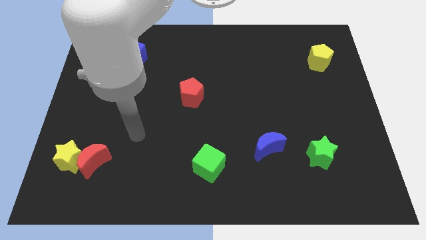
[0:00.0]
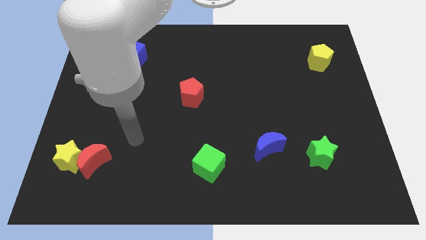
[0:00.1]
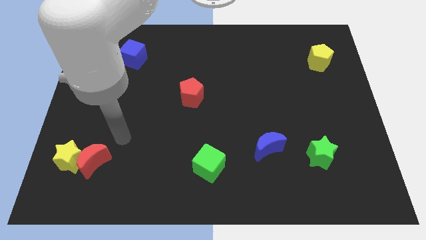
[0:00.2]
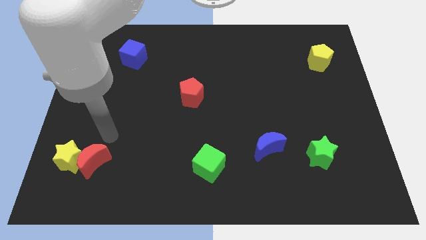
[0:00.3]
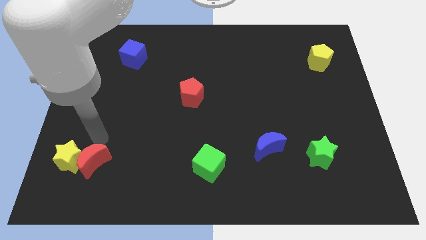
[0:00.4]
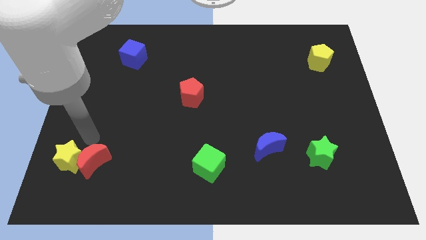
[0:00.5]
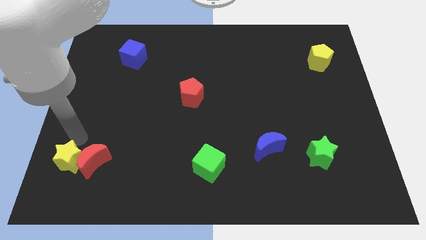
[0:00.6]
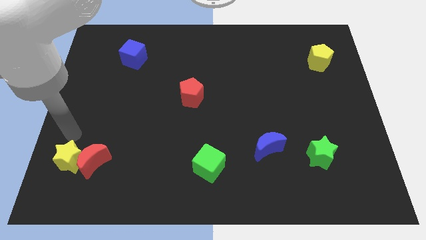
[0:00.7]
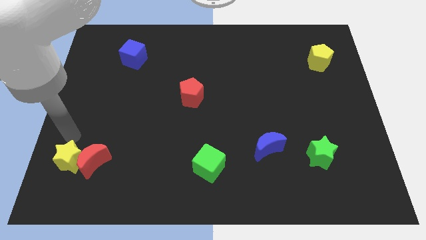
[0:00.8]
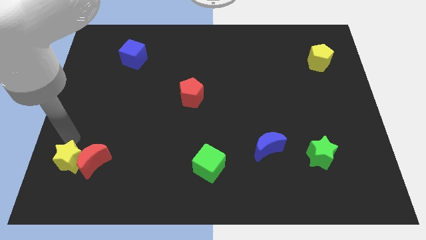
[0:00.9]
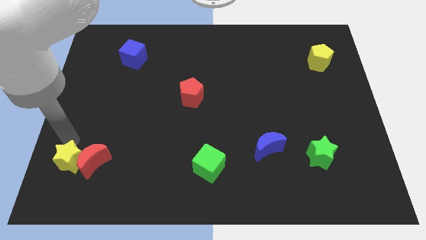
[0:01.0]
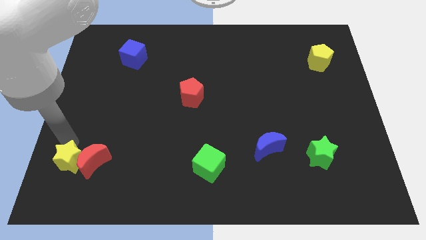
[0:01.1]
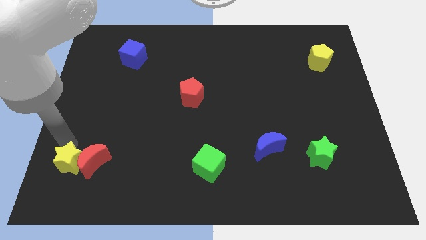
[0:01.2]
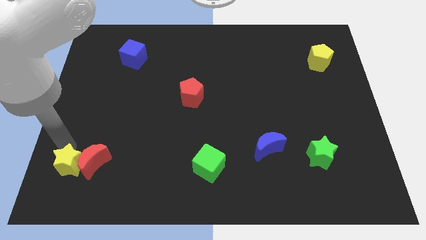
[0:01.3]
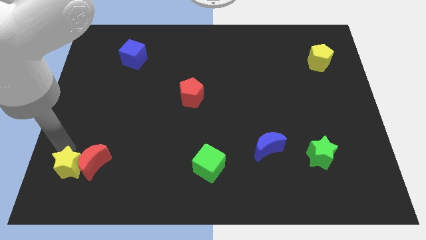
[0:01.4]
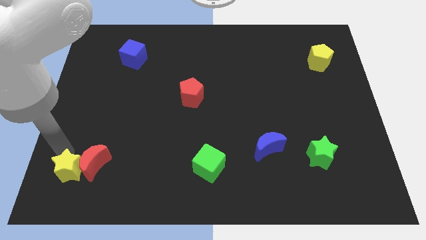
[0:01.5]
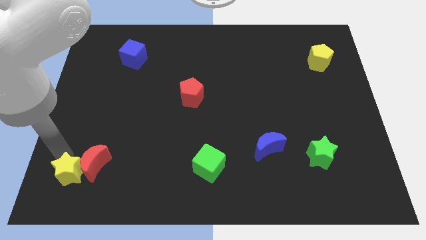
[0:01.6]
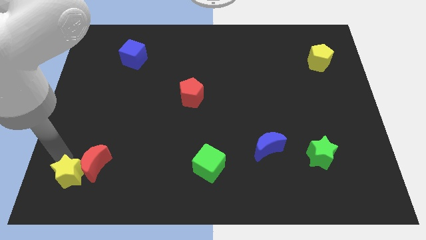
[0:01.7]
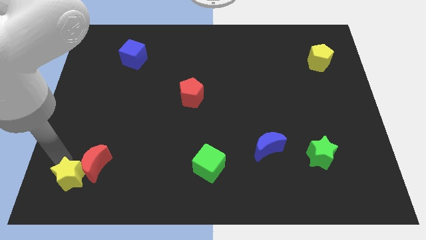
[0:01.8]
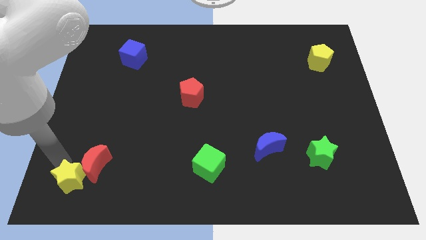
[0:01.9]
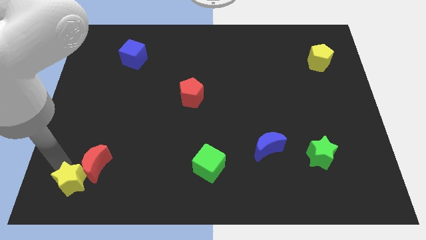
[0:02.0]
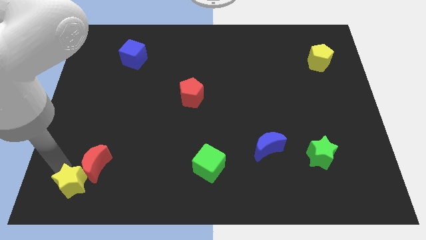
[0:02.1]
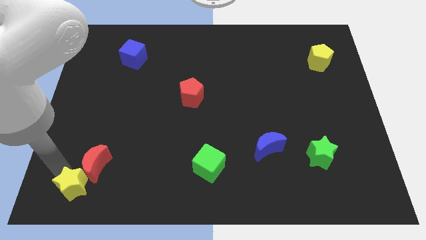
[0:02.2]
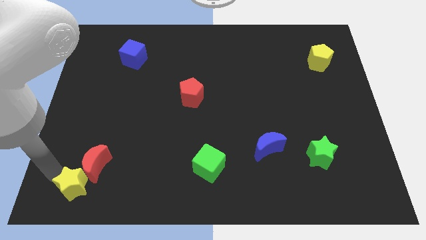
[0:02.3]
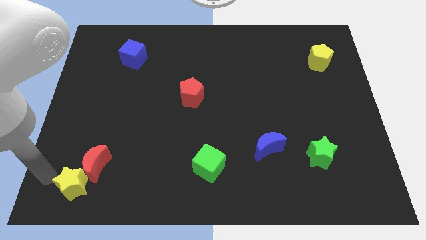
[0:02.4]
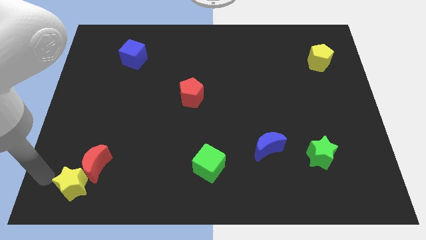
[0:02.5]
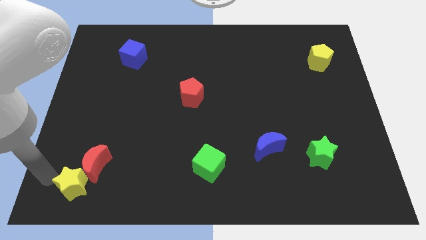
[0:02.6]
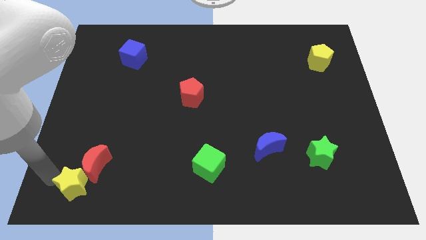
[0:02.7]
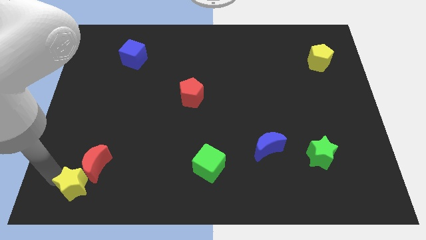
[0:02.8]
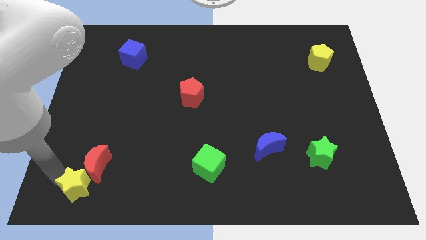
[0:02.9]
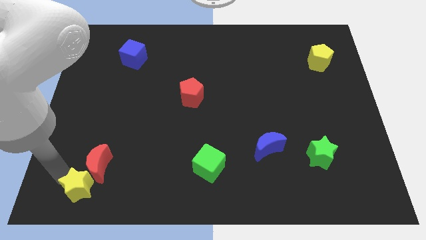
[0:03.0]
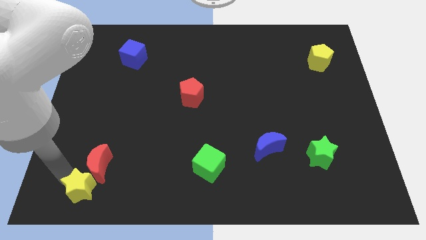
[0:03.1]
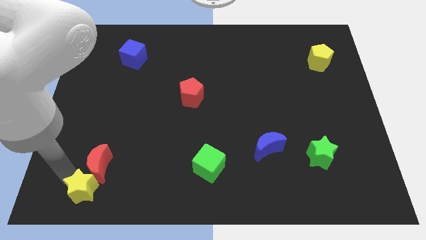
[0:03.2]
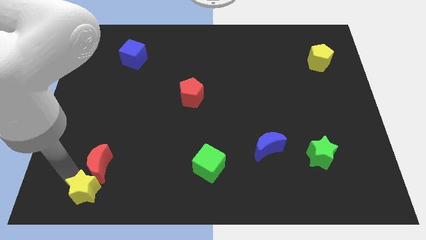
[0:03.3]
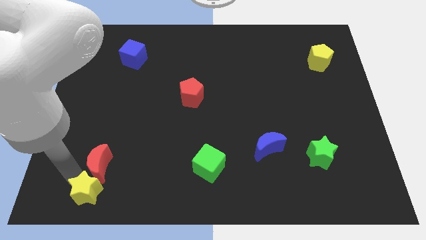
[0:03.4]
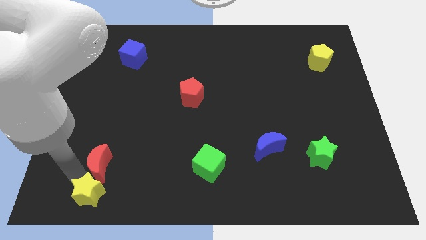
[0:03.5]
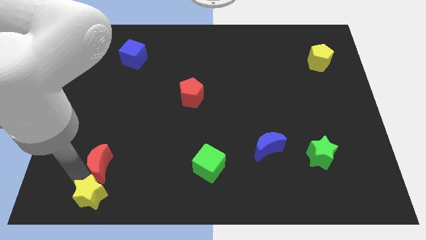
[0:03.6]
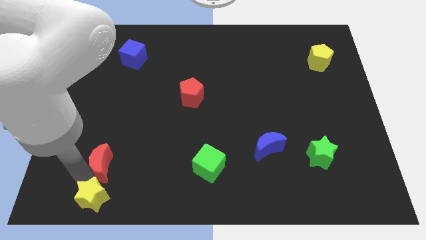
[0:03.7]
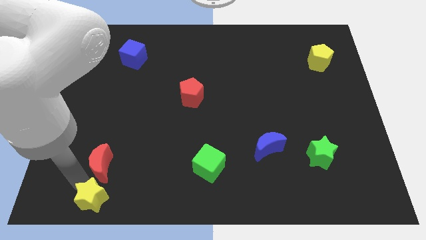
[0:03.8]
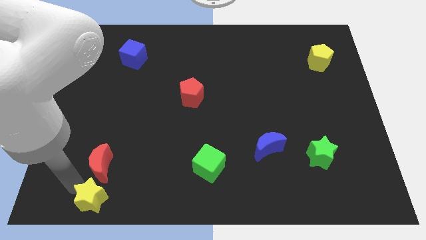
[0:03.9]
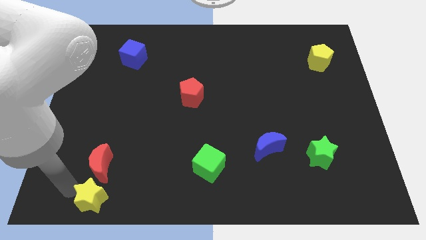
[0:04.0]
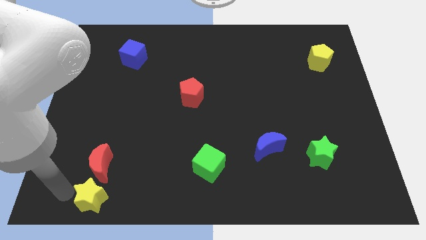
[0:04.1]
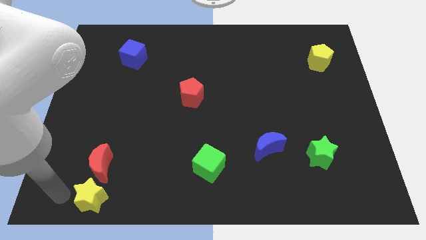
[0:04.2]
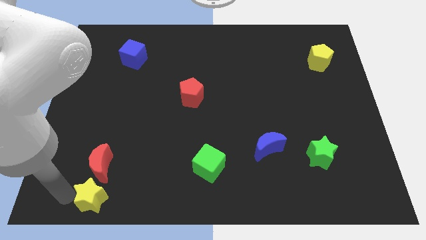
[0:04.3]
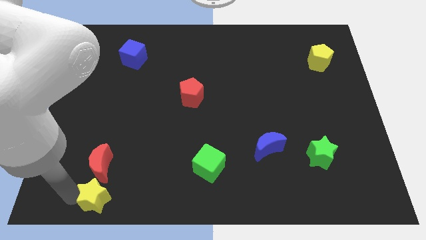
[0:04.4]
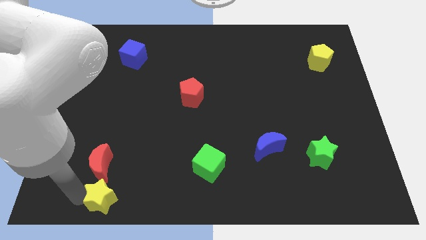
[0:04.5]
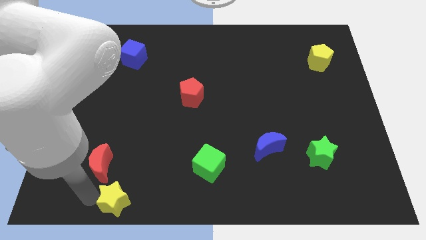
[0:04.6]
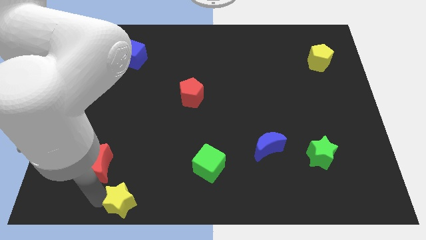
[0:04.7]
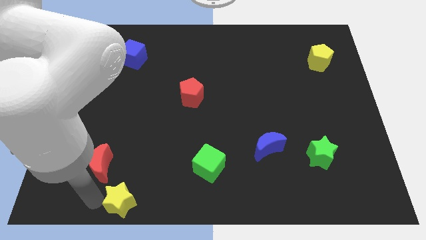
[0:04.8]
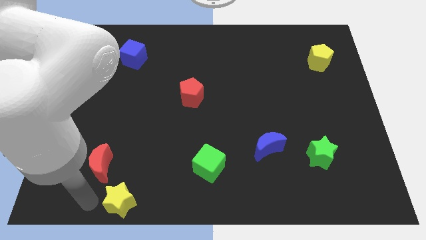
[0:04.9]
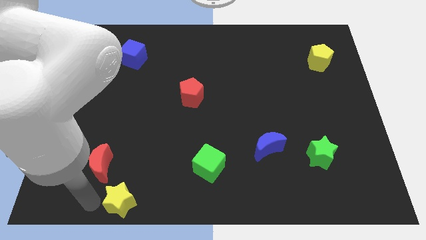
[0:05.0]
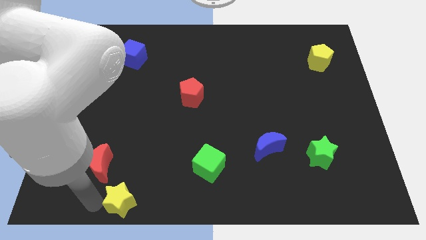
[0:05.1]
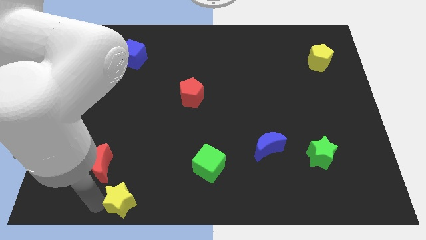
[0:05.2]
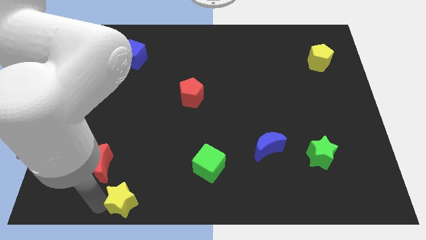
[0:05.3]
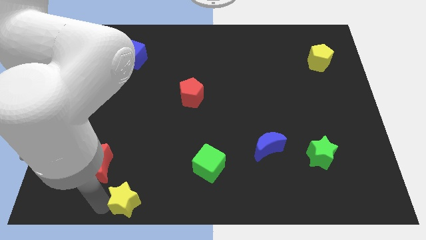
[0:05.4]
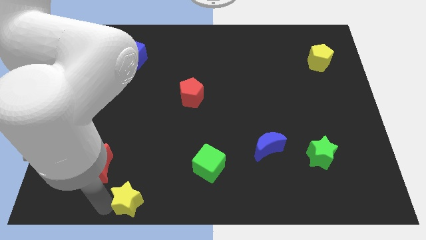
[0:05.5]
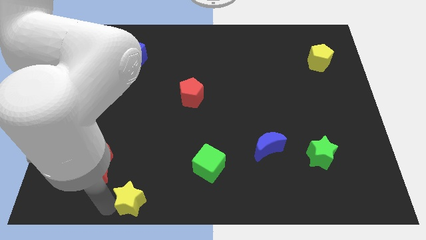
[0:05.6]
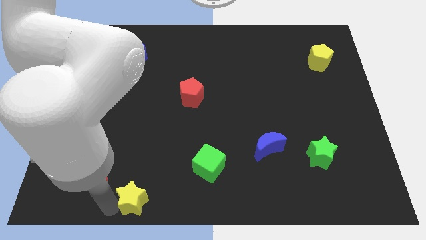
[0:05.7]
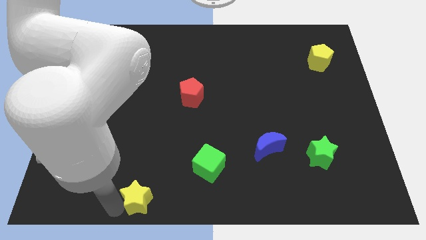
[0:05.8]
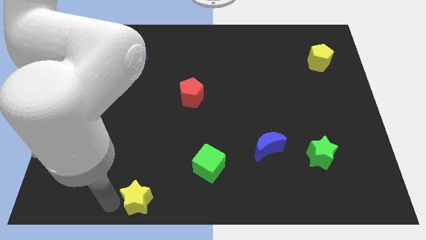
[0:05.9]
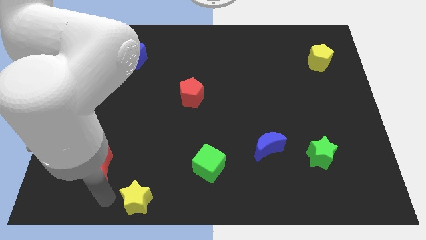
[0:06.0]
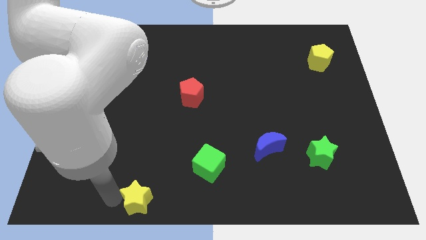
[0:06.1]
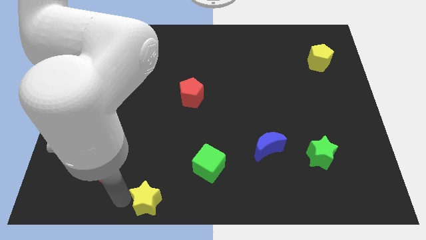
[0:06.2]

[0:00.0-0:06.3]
put the yellow star to the bottom side
